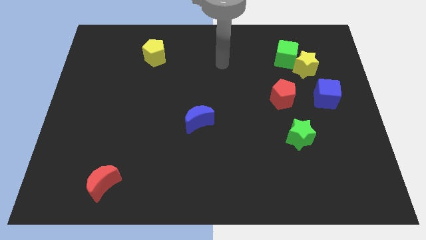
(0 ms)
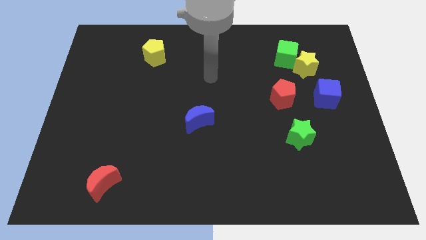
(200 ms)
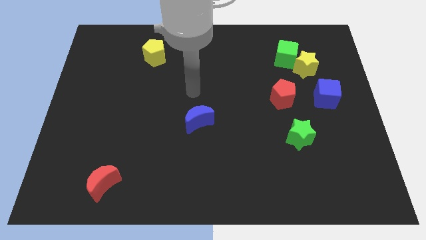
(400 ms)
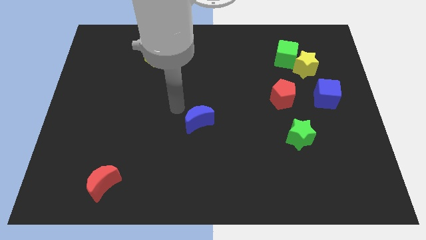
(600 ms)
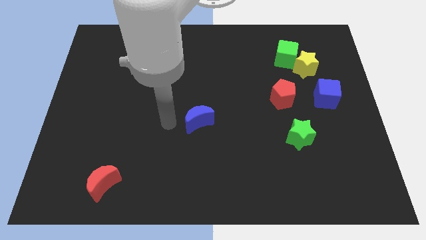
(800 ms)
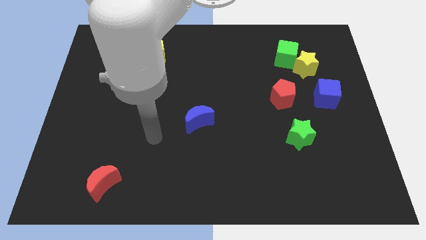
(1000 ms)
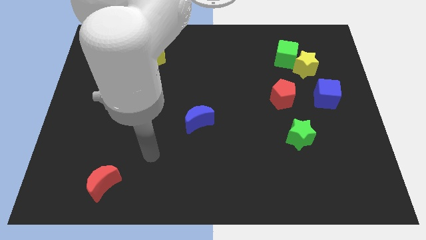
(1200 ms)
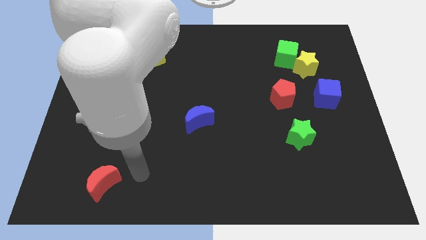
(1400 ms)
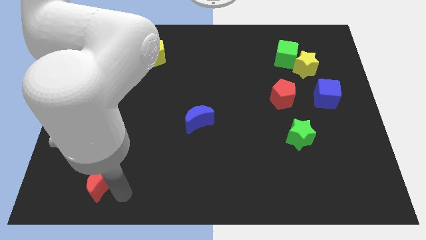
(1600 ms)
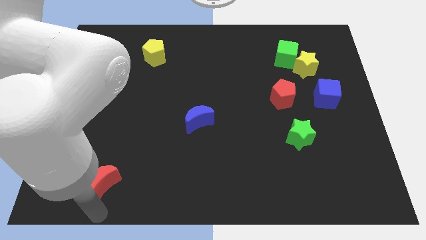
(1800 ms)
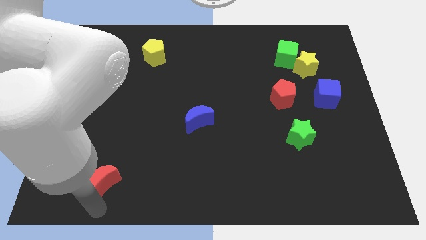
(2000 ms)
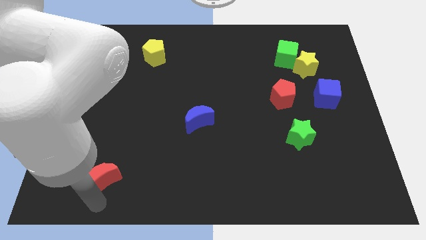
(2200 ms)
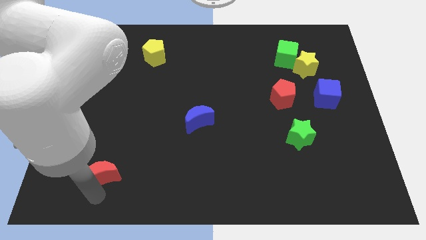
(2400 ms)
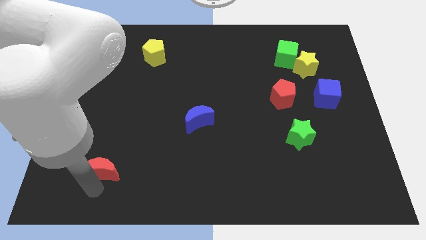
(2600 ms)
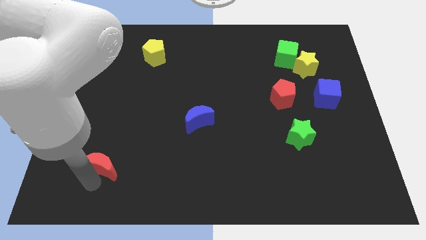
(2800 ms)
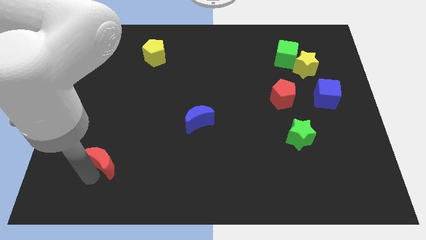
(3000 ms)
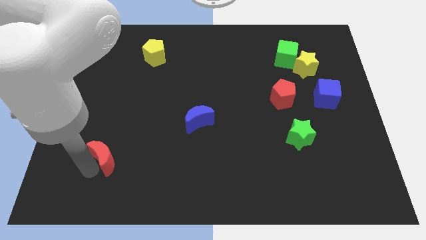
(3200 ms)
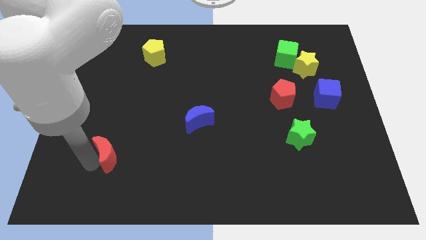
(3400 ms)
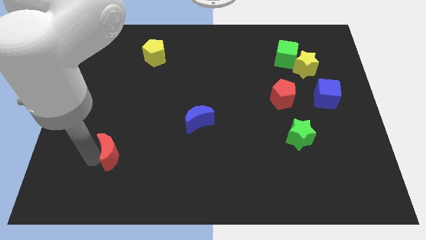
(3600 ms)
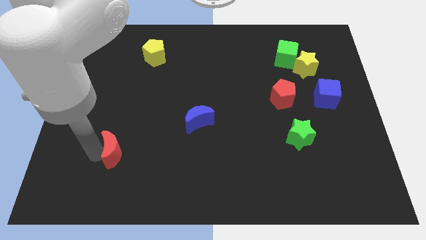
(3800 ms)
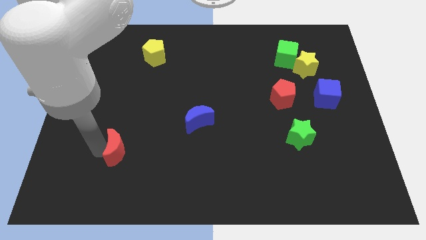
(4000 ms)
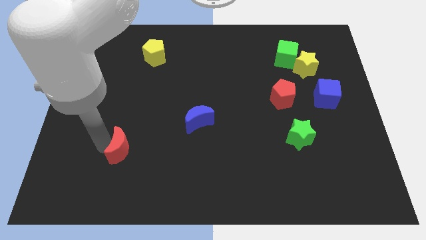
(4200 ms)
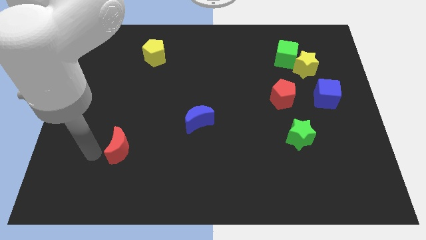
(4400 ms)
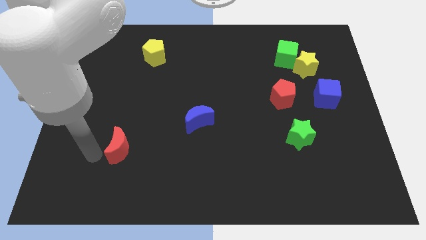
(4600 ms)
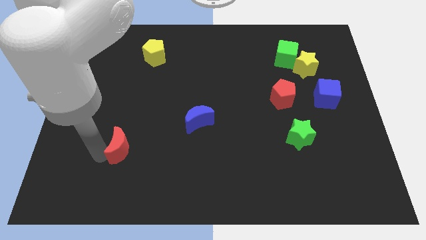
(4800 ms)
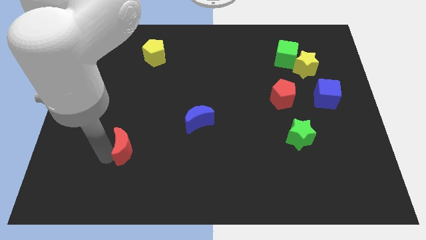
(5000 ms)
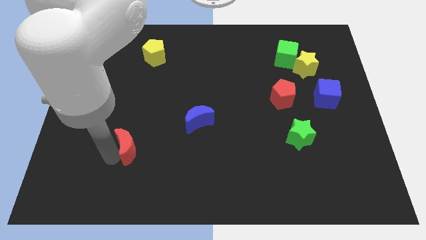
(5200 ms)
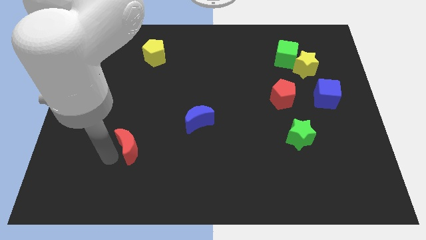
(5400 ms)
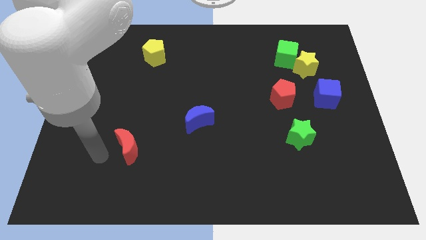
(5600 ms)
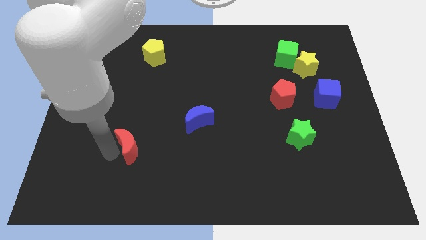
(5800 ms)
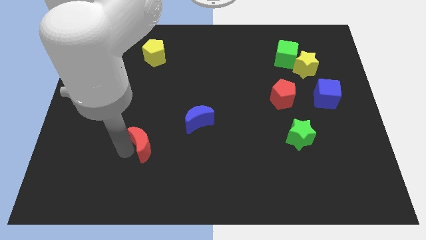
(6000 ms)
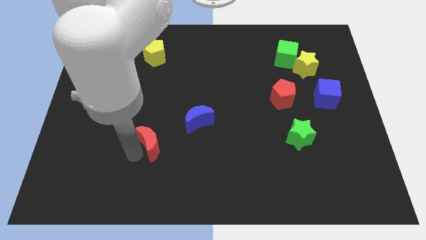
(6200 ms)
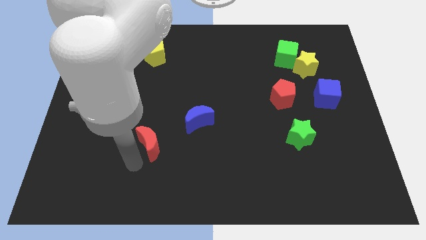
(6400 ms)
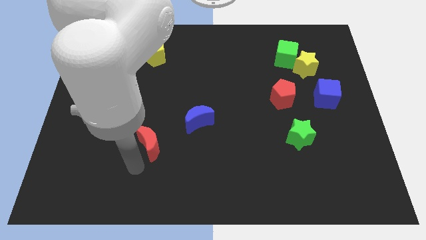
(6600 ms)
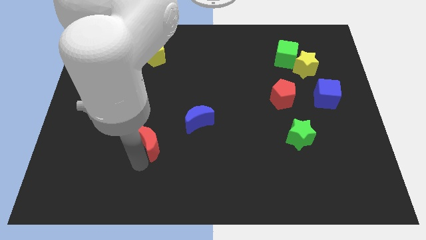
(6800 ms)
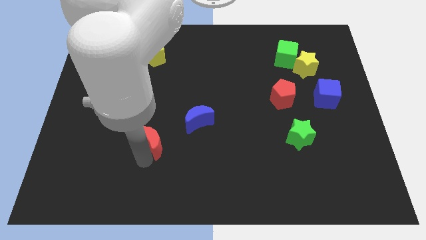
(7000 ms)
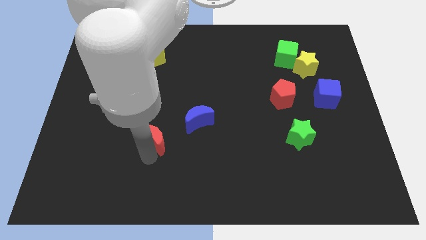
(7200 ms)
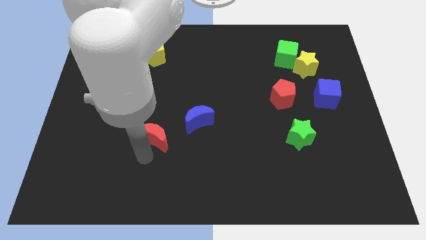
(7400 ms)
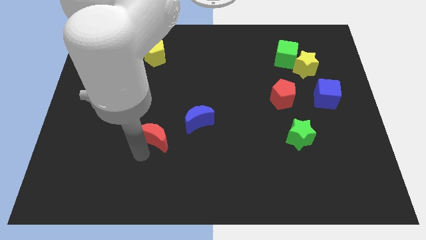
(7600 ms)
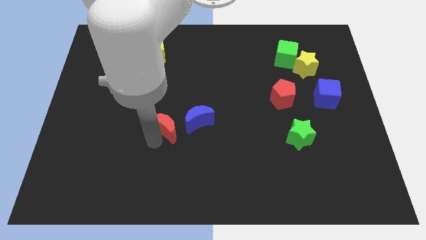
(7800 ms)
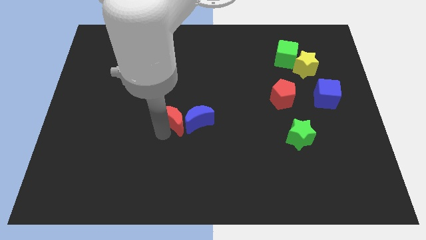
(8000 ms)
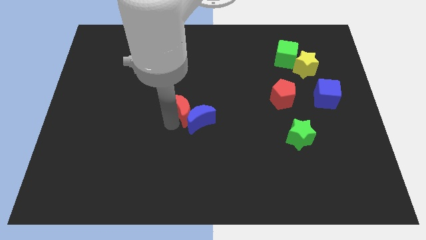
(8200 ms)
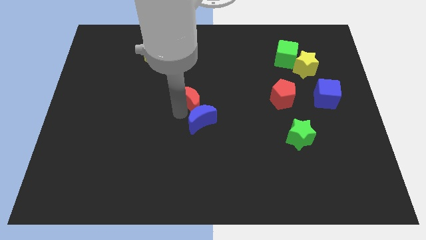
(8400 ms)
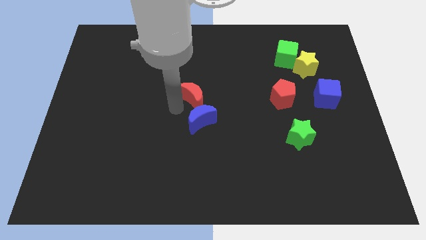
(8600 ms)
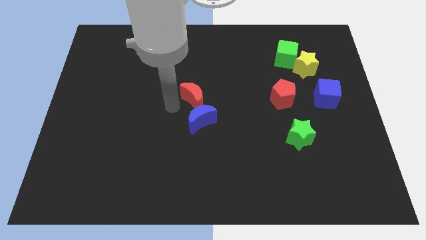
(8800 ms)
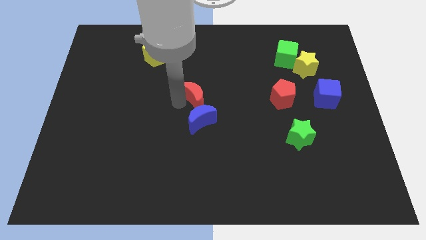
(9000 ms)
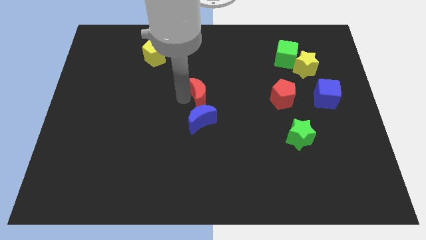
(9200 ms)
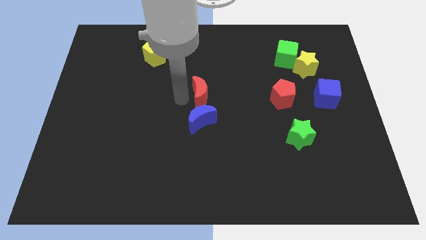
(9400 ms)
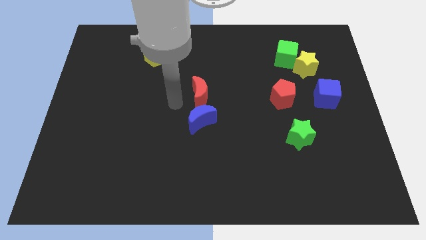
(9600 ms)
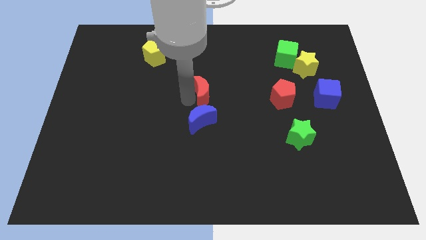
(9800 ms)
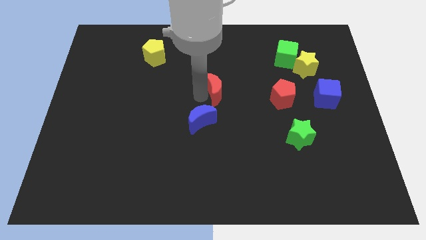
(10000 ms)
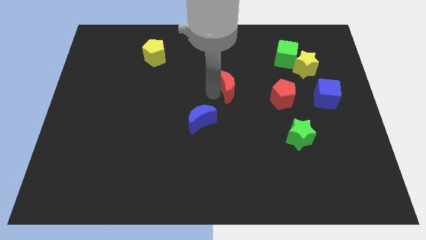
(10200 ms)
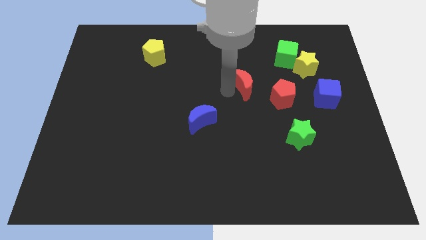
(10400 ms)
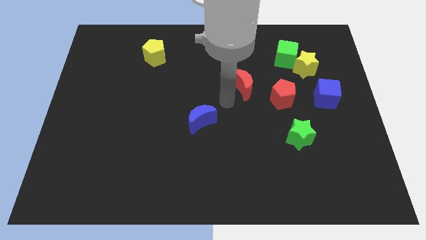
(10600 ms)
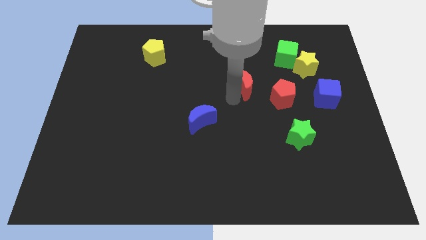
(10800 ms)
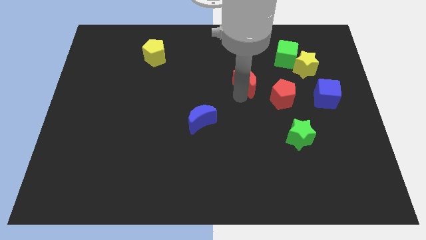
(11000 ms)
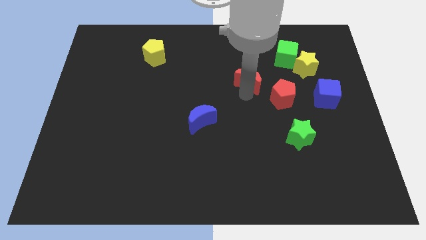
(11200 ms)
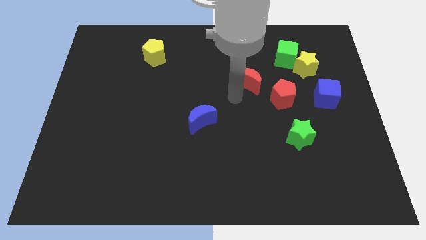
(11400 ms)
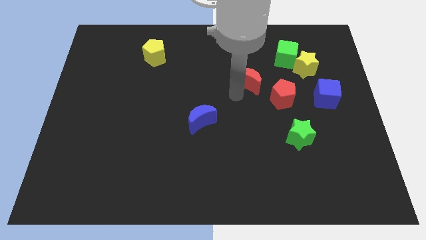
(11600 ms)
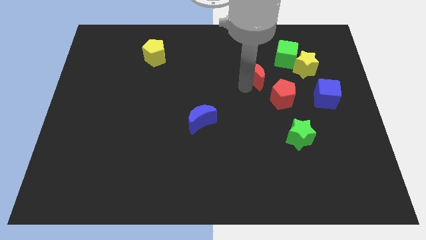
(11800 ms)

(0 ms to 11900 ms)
put the red moon left of the yellow star

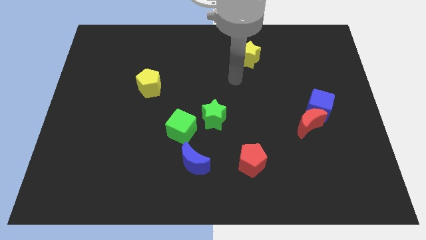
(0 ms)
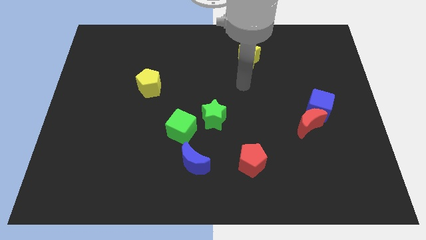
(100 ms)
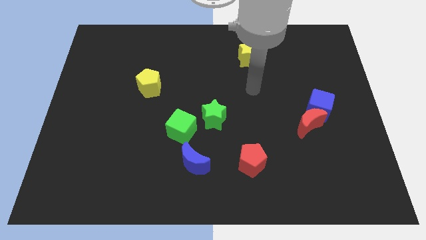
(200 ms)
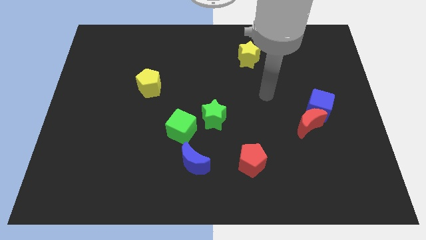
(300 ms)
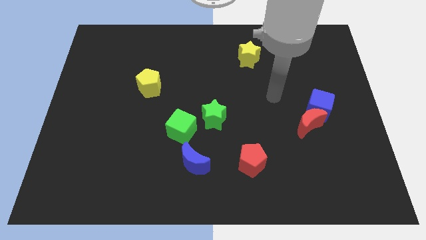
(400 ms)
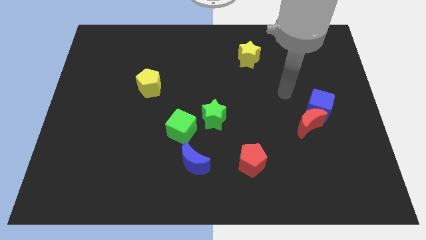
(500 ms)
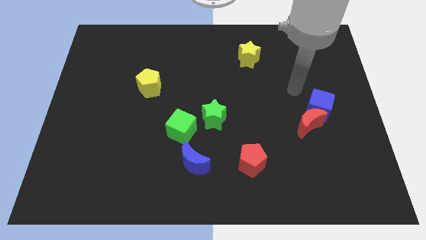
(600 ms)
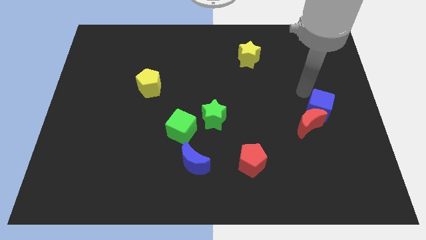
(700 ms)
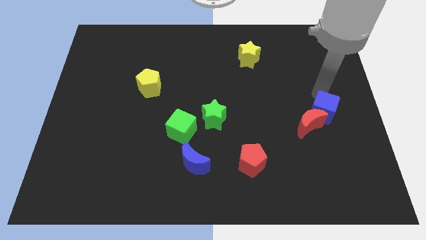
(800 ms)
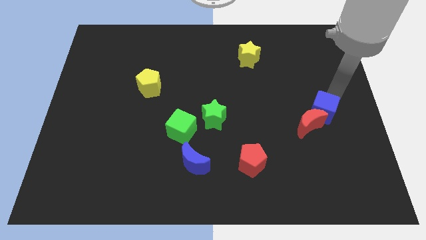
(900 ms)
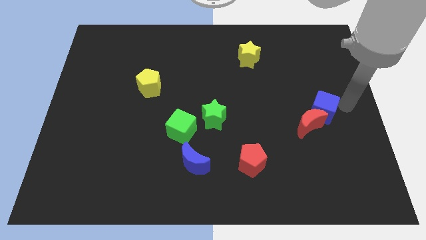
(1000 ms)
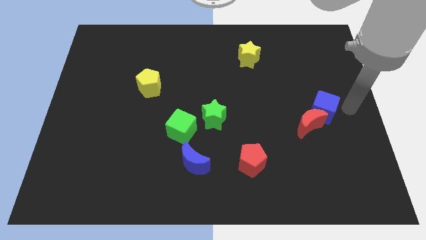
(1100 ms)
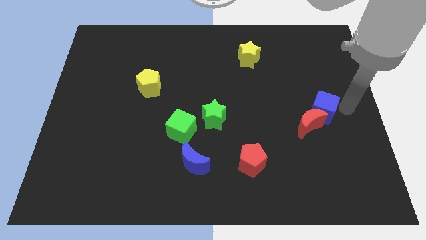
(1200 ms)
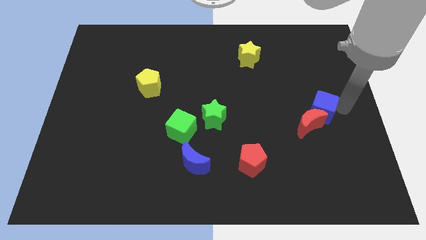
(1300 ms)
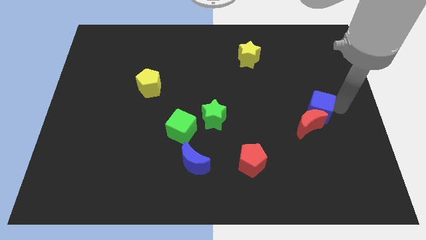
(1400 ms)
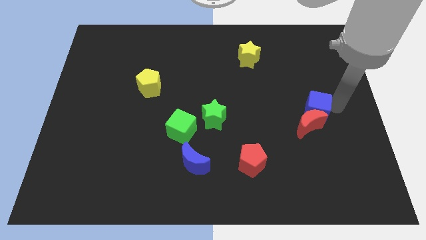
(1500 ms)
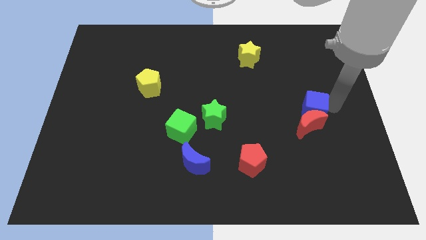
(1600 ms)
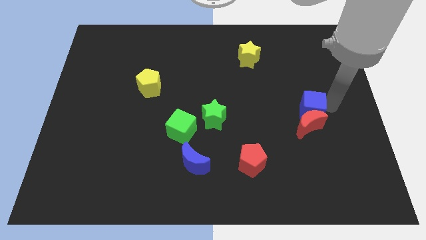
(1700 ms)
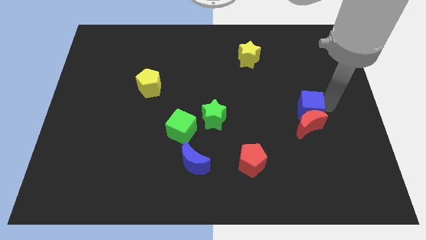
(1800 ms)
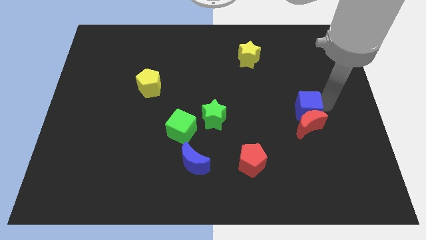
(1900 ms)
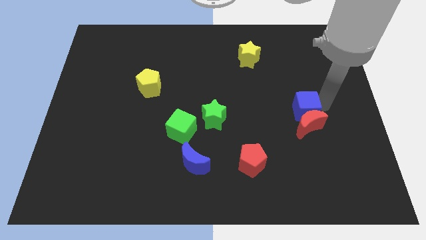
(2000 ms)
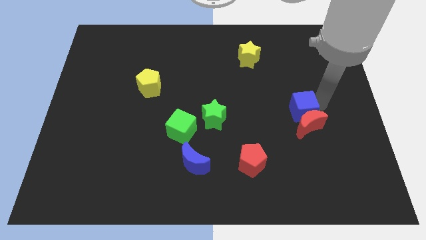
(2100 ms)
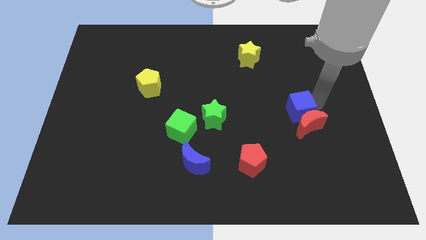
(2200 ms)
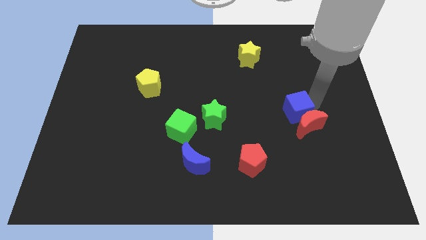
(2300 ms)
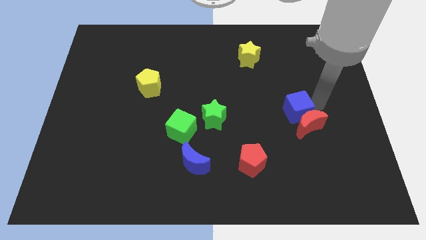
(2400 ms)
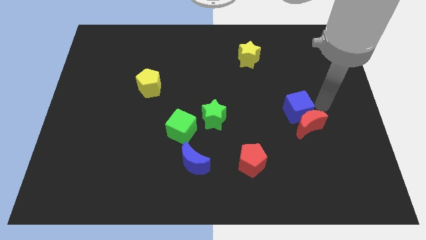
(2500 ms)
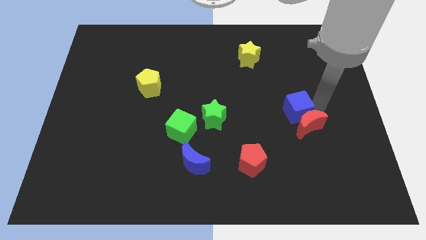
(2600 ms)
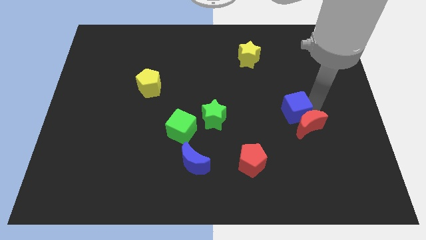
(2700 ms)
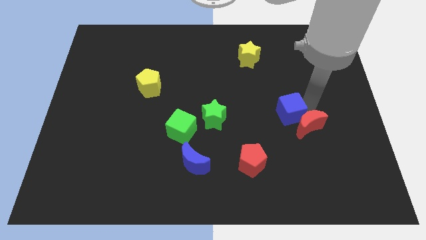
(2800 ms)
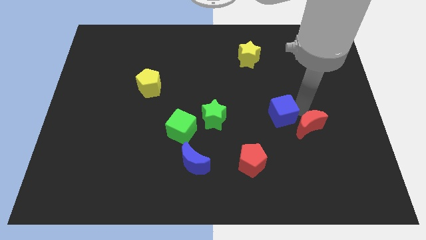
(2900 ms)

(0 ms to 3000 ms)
put the blue cube to the right of the green star
